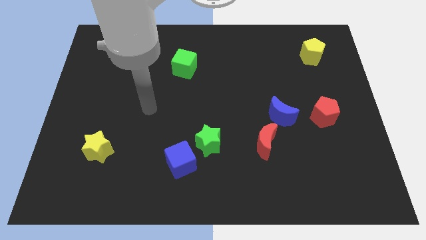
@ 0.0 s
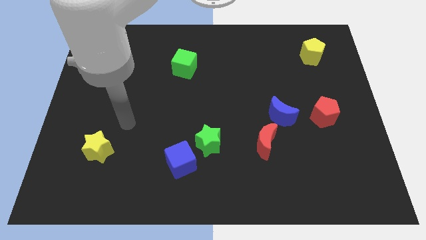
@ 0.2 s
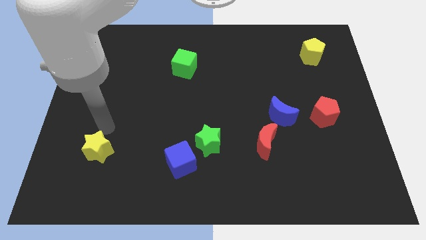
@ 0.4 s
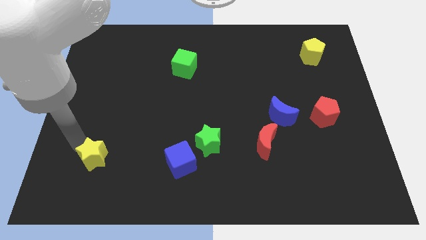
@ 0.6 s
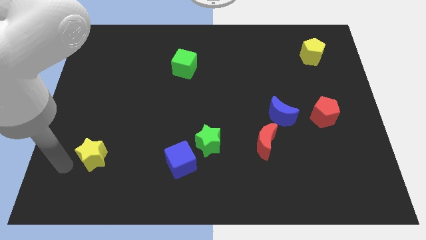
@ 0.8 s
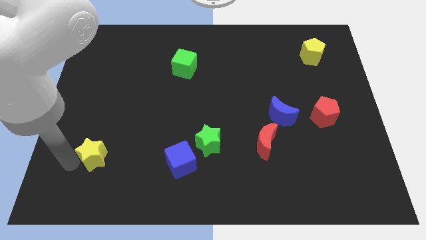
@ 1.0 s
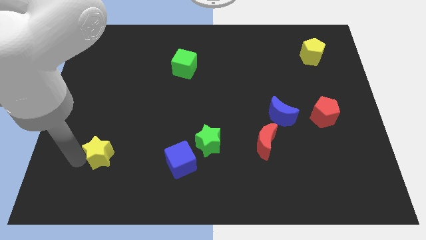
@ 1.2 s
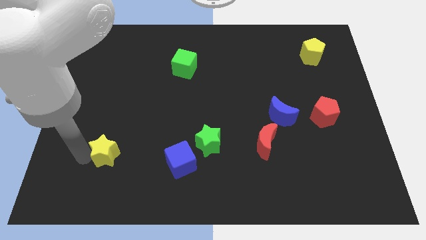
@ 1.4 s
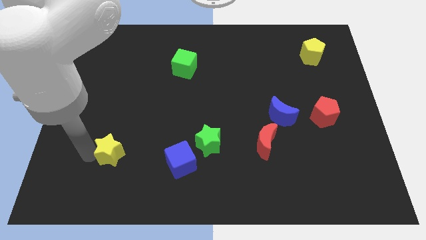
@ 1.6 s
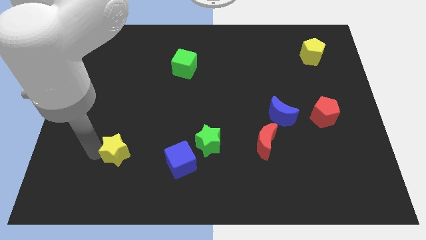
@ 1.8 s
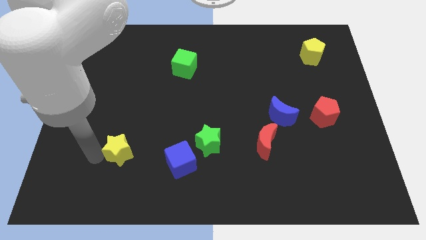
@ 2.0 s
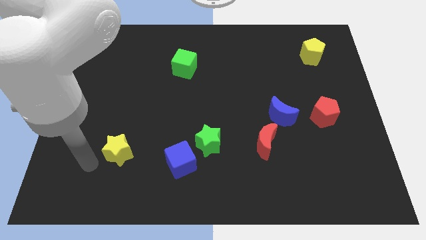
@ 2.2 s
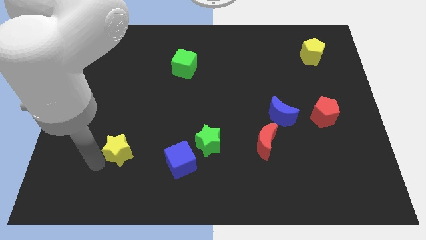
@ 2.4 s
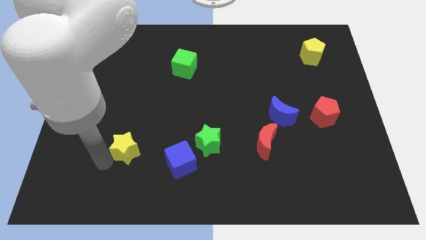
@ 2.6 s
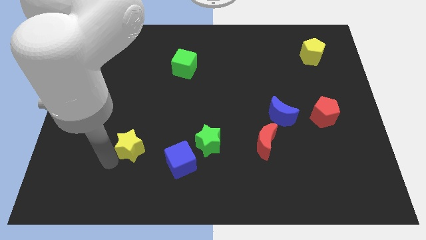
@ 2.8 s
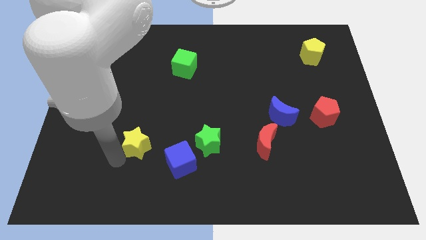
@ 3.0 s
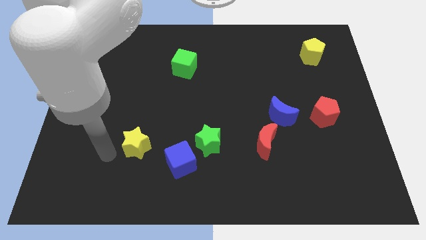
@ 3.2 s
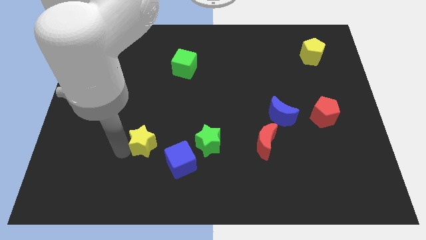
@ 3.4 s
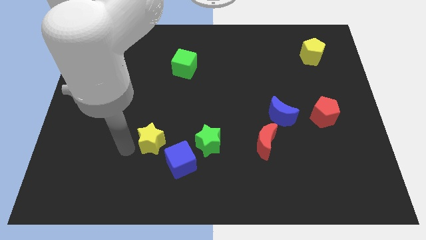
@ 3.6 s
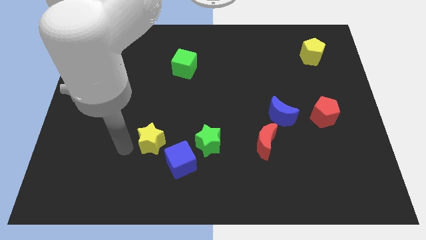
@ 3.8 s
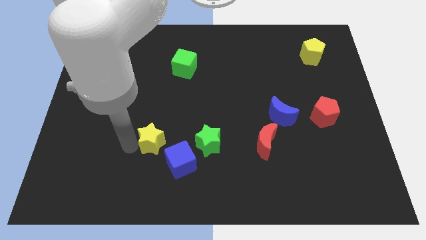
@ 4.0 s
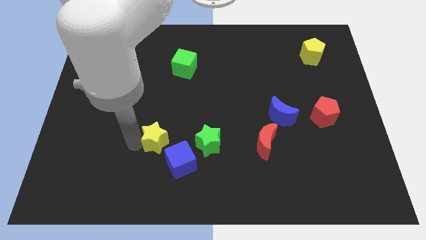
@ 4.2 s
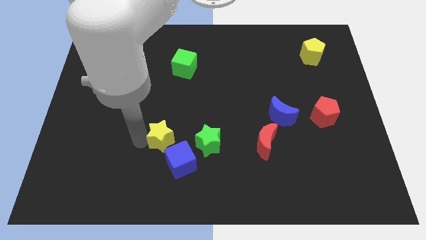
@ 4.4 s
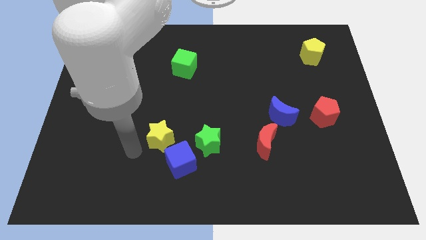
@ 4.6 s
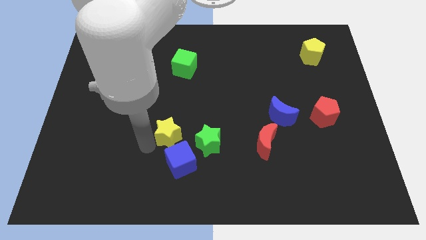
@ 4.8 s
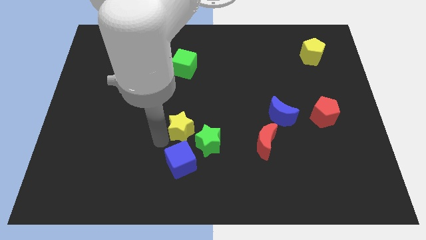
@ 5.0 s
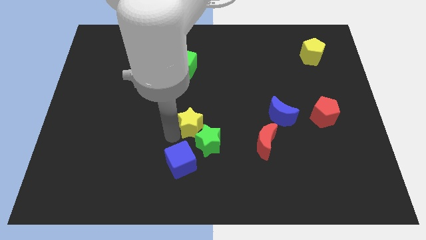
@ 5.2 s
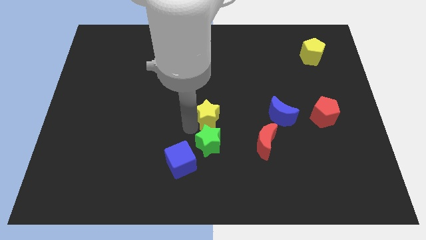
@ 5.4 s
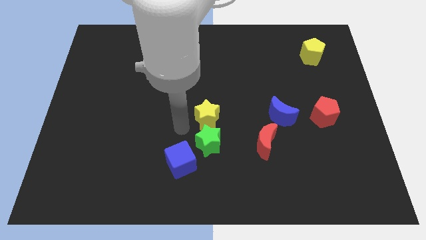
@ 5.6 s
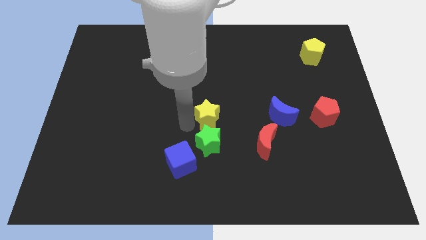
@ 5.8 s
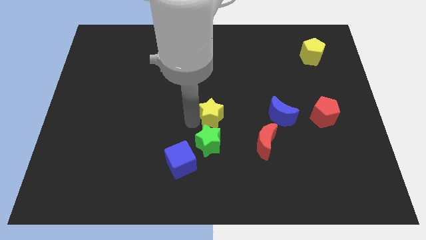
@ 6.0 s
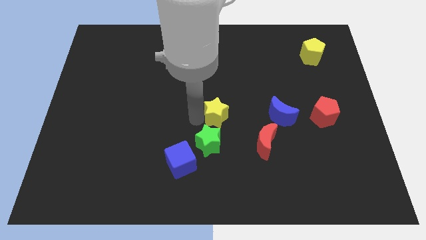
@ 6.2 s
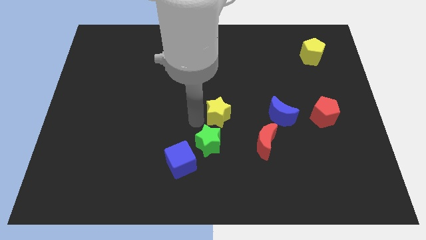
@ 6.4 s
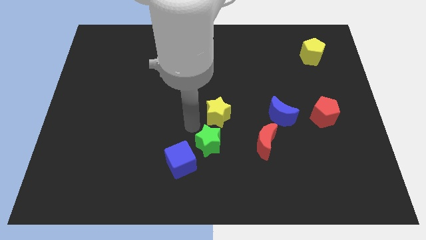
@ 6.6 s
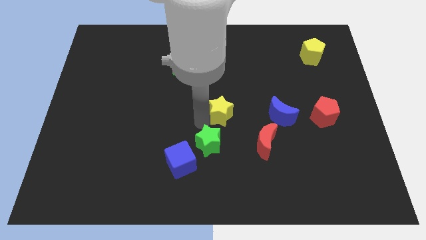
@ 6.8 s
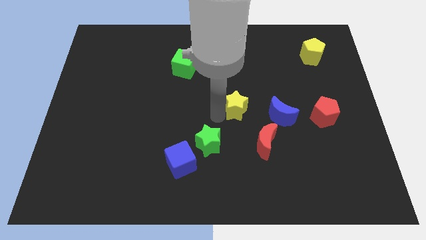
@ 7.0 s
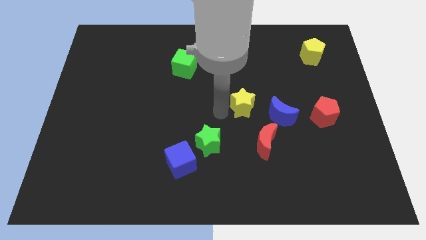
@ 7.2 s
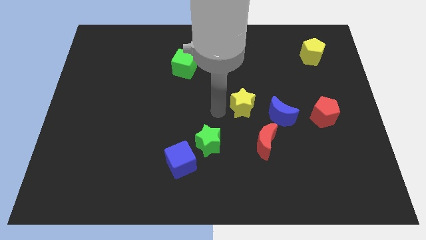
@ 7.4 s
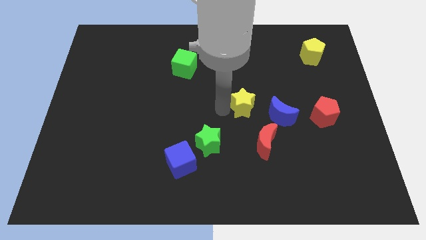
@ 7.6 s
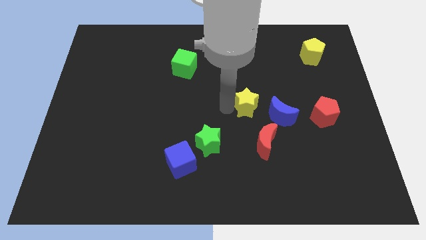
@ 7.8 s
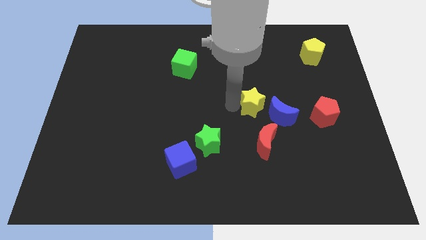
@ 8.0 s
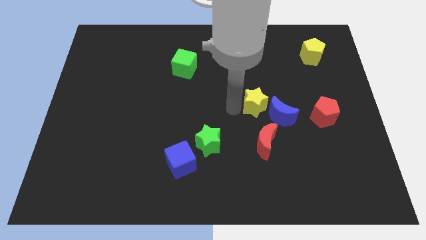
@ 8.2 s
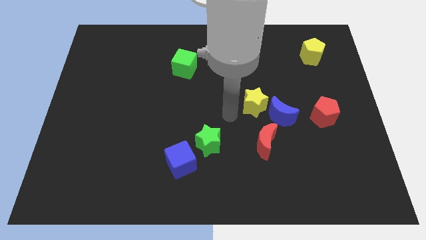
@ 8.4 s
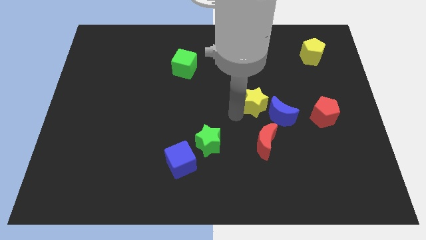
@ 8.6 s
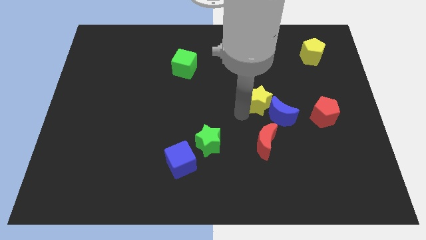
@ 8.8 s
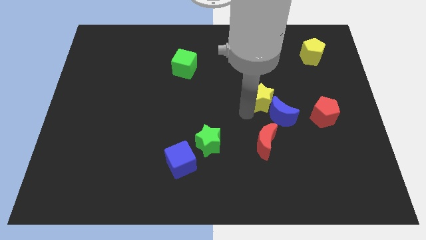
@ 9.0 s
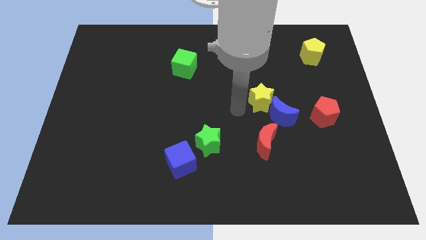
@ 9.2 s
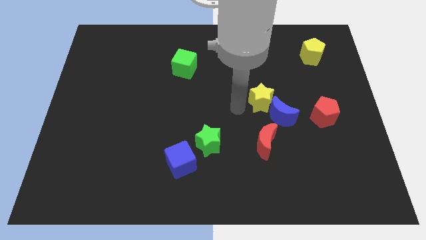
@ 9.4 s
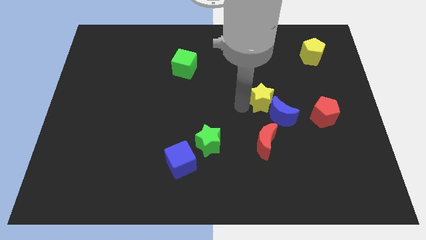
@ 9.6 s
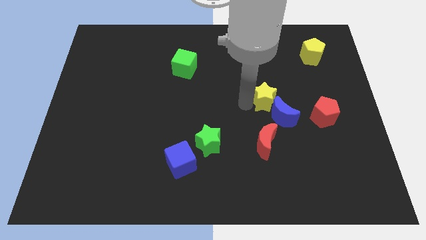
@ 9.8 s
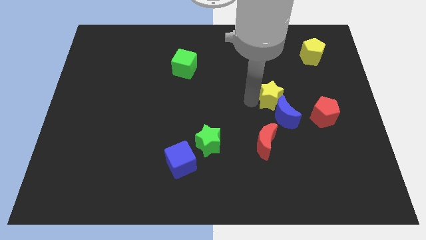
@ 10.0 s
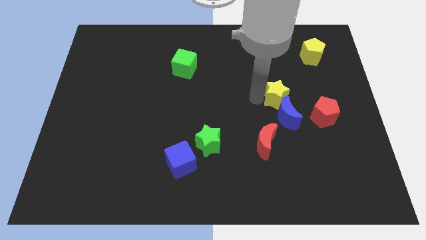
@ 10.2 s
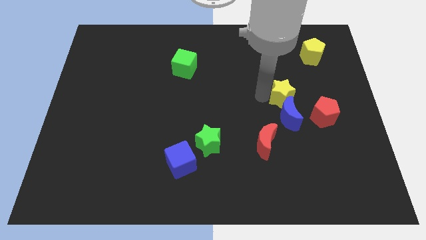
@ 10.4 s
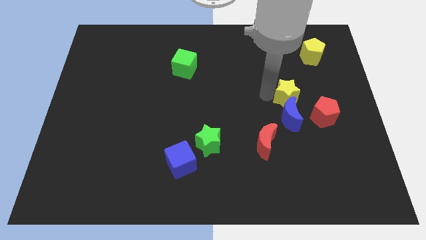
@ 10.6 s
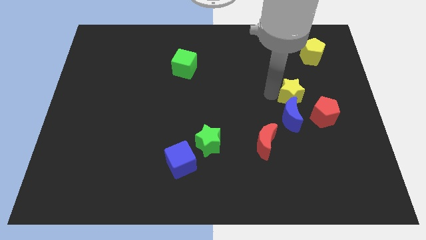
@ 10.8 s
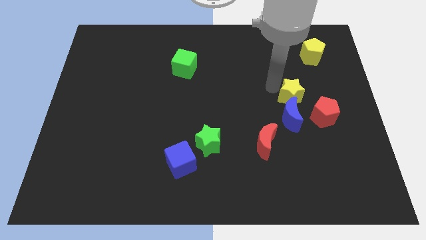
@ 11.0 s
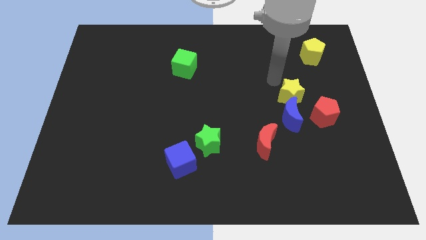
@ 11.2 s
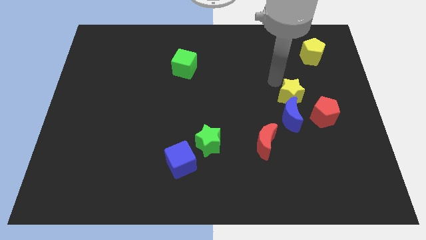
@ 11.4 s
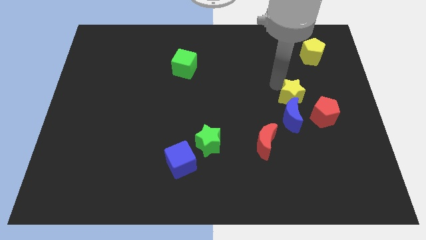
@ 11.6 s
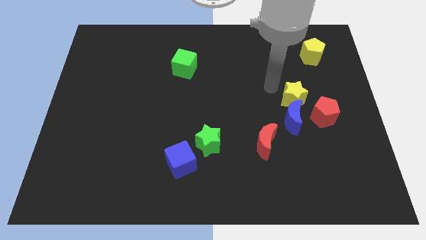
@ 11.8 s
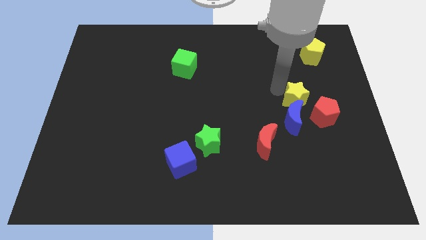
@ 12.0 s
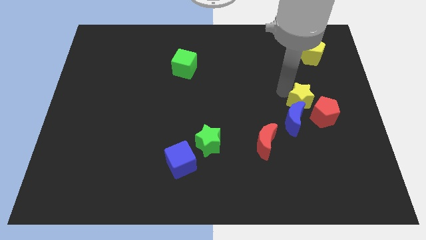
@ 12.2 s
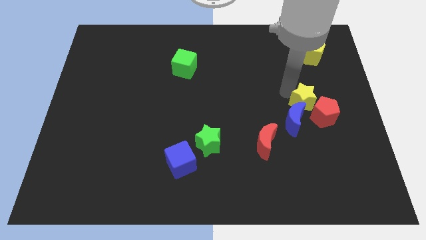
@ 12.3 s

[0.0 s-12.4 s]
put the yellow star close to the red pentagon
